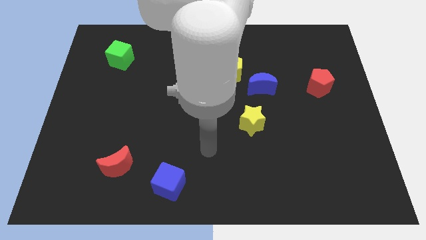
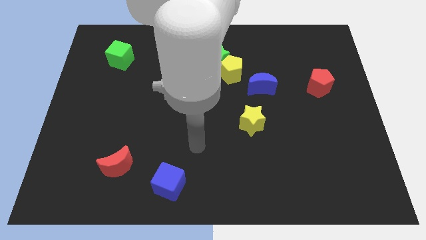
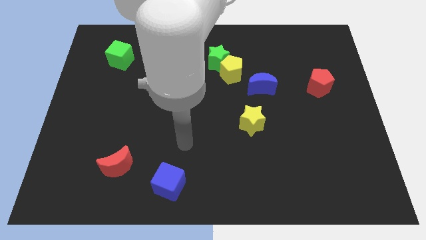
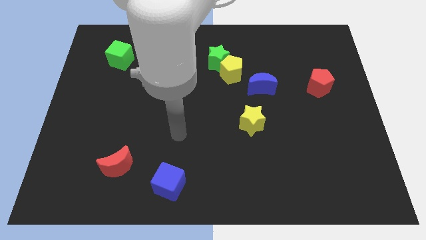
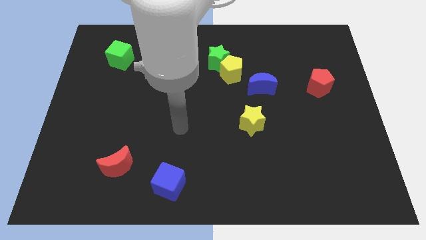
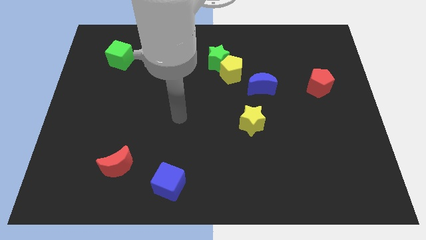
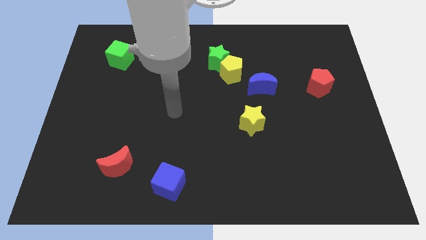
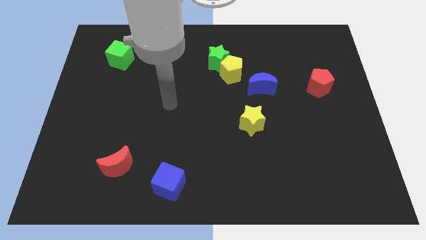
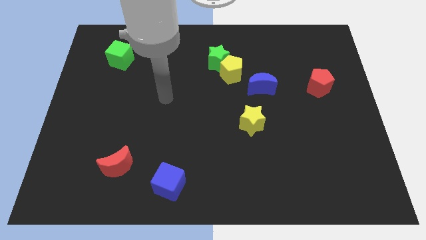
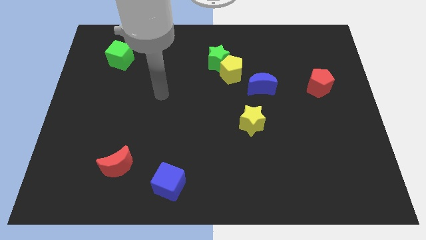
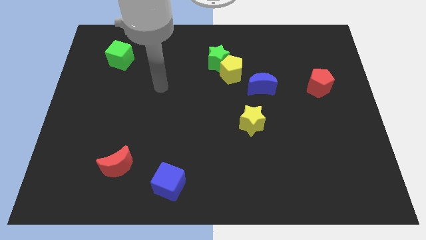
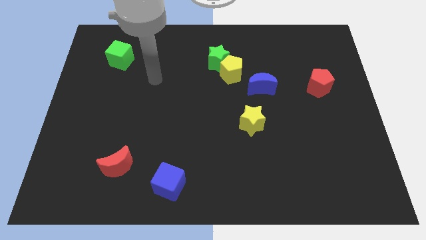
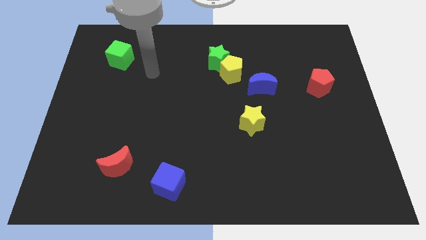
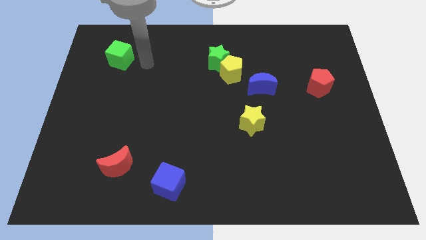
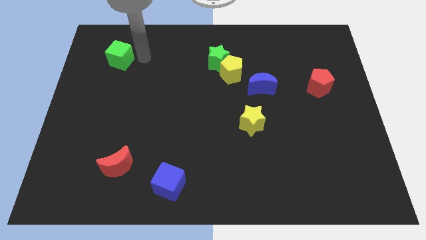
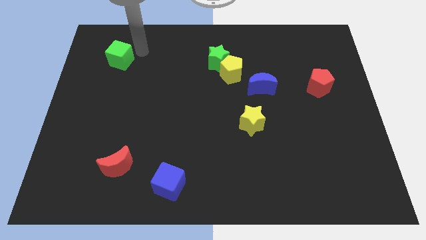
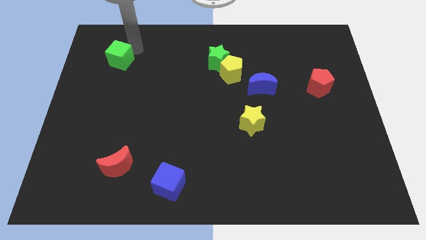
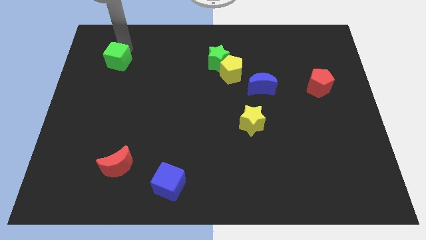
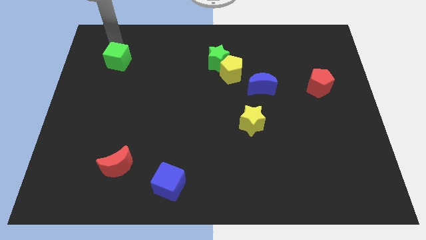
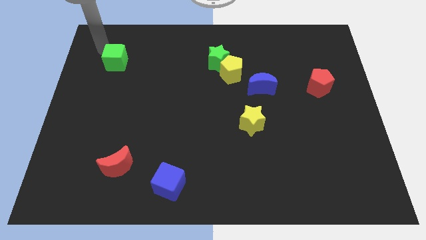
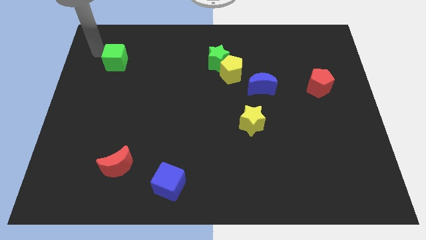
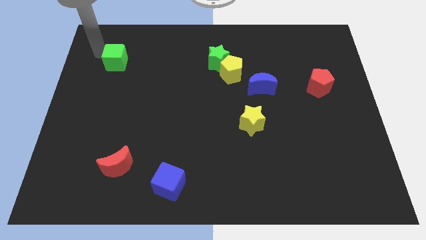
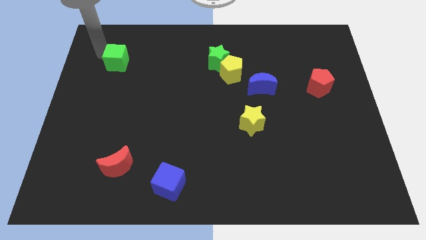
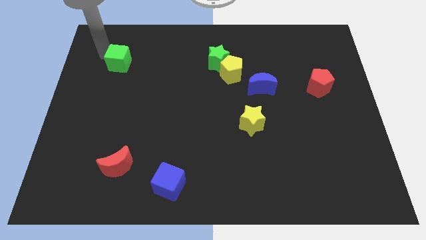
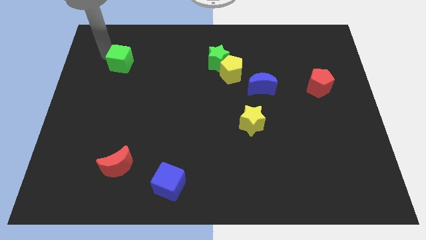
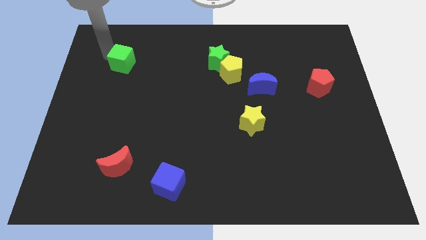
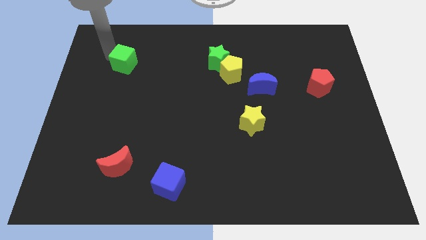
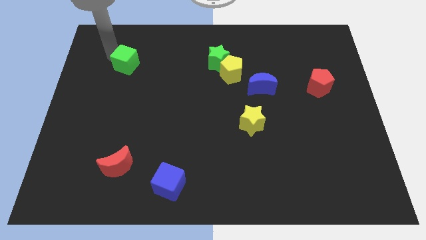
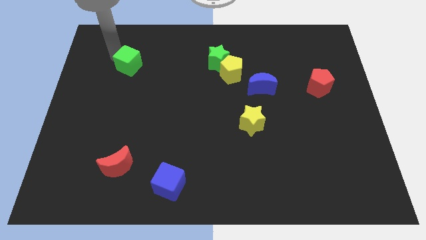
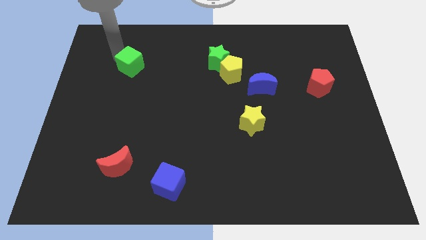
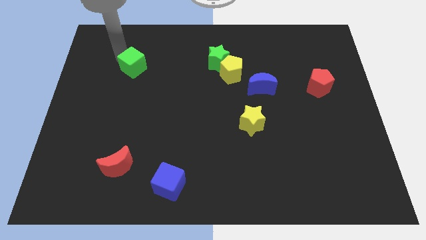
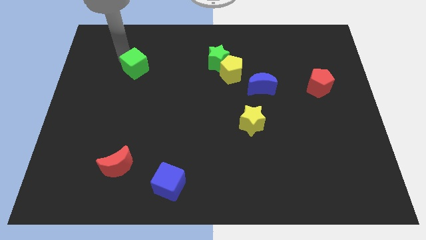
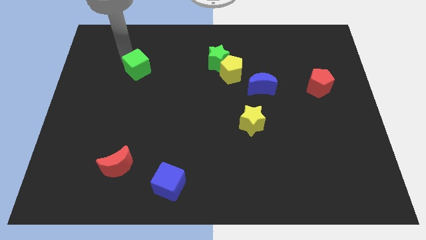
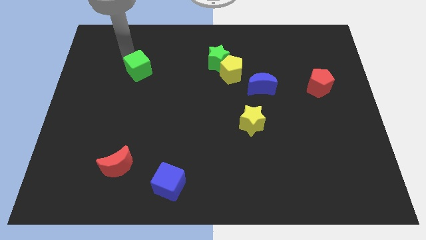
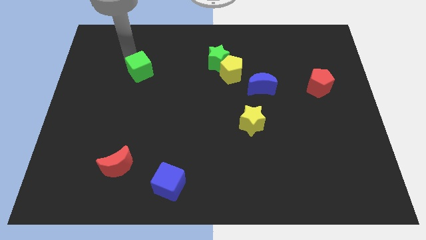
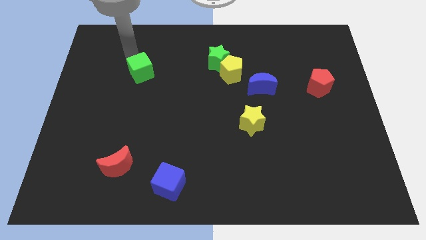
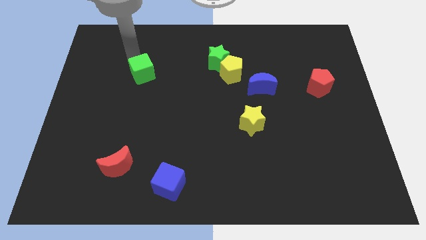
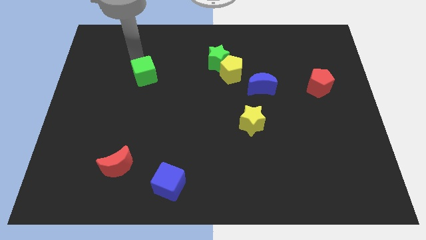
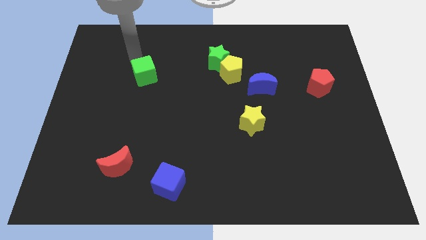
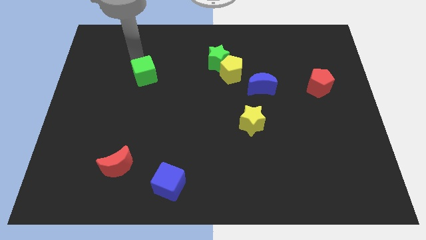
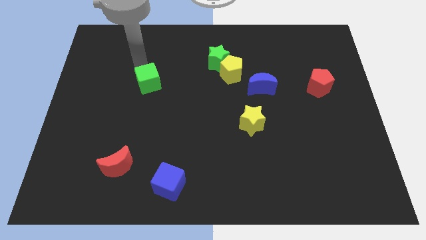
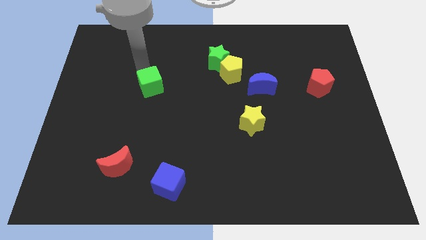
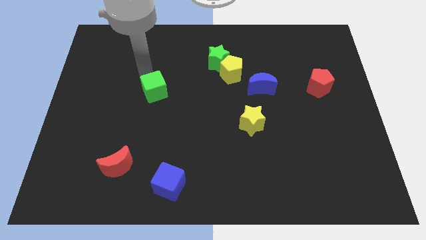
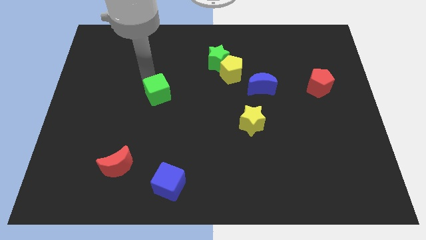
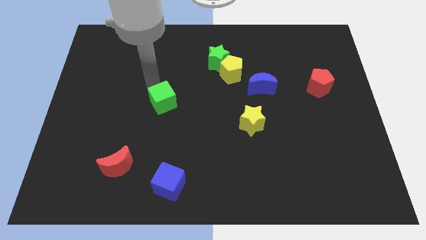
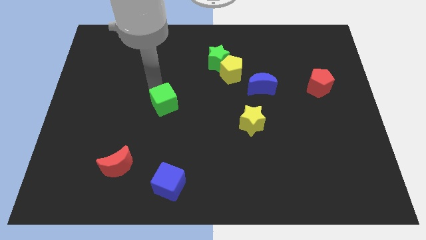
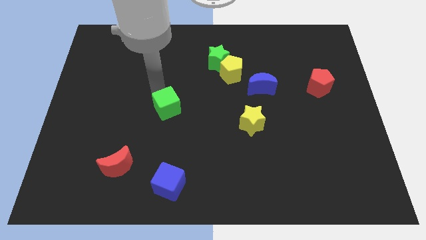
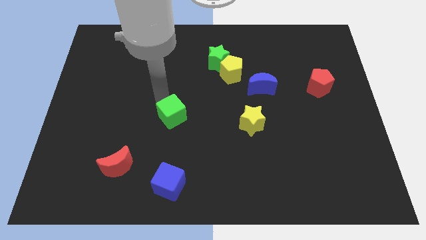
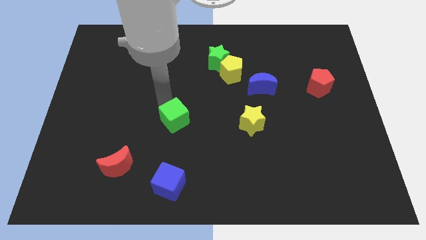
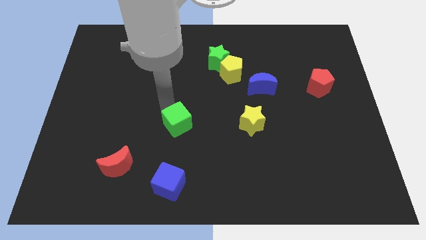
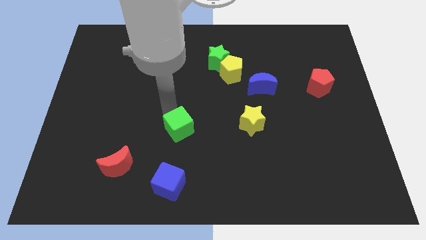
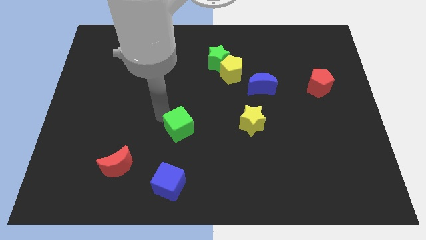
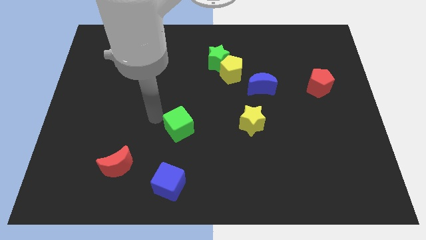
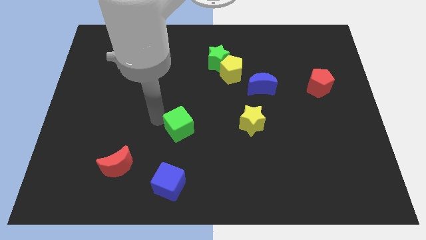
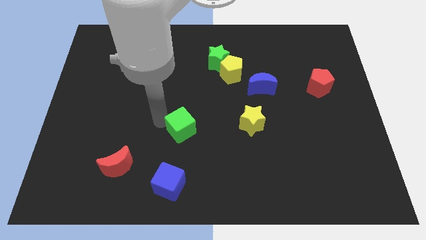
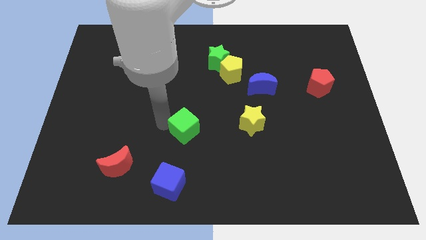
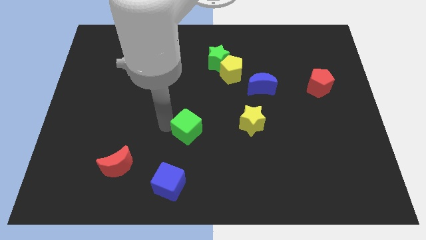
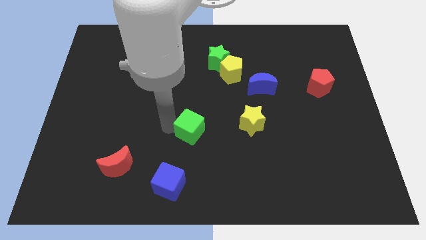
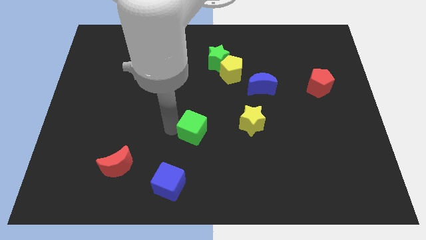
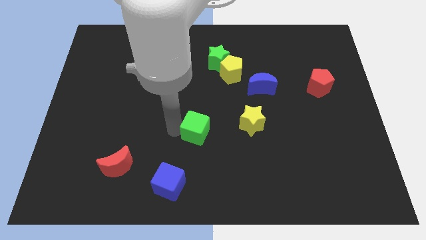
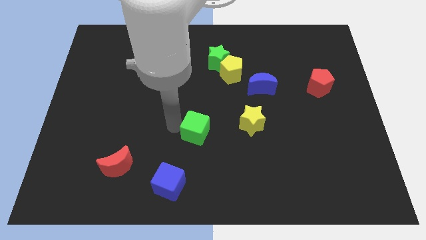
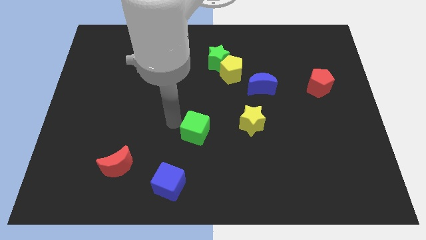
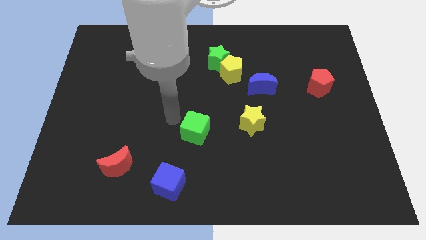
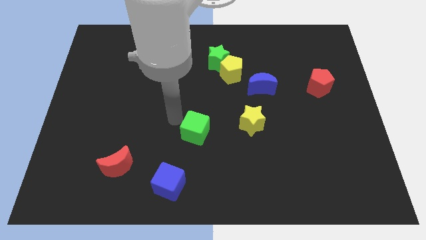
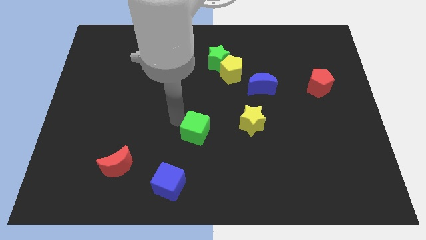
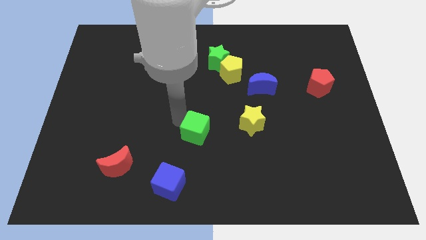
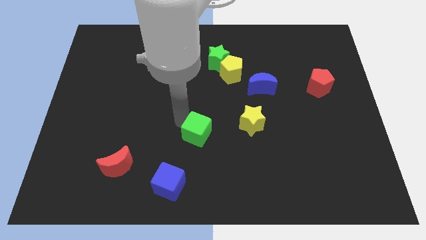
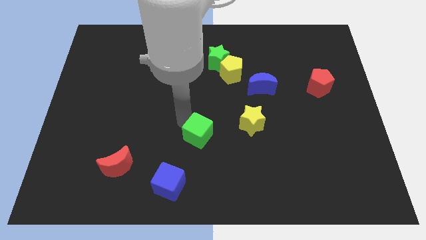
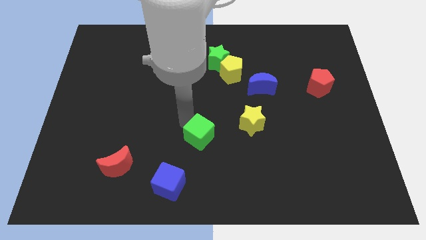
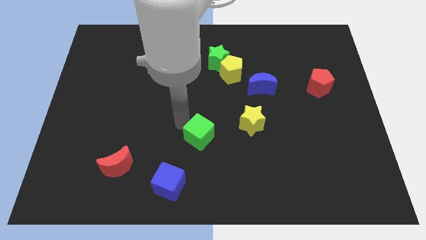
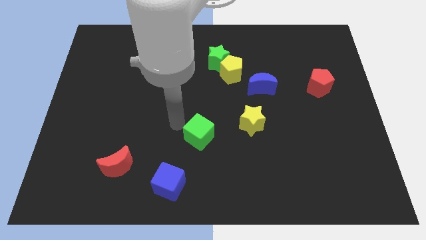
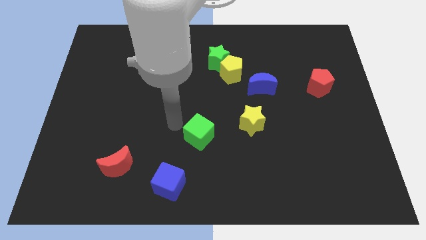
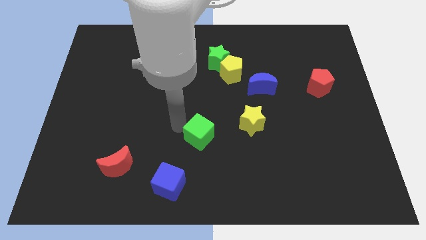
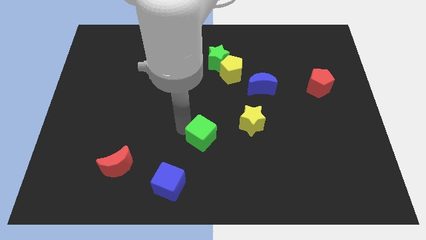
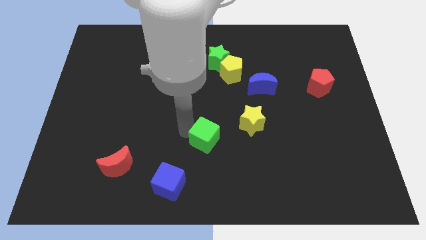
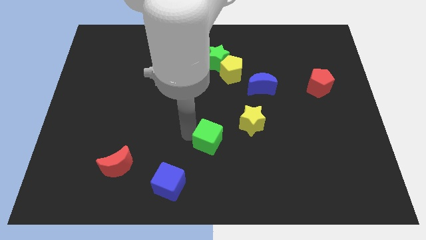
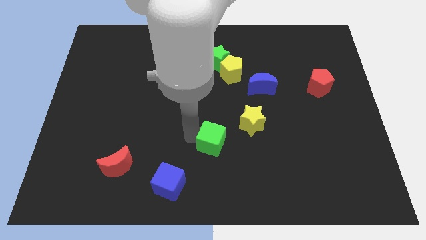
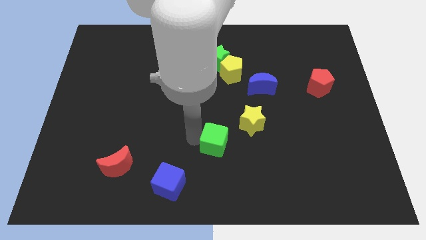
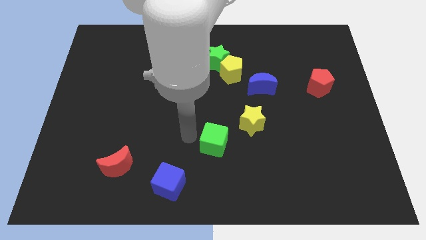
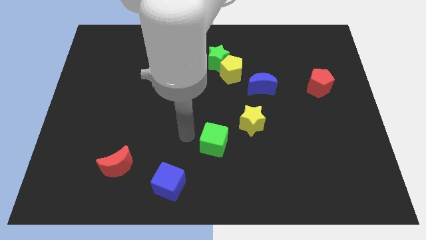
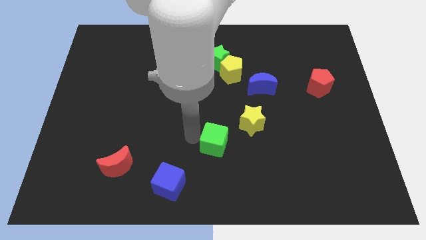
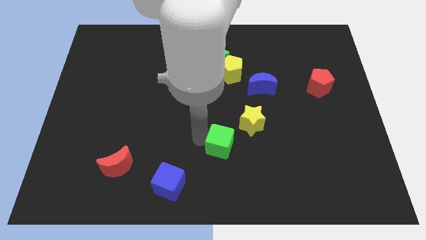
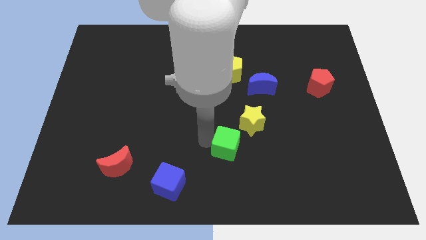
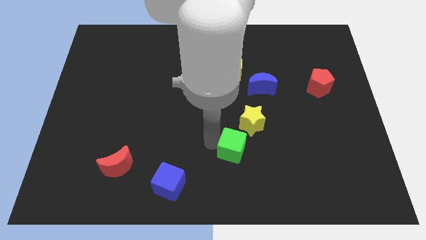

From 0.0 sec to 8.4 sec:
push the green cube to the bottom of the yellow star
